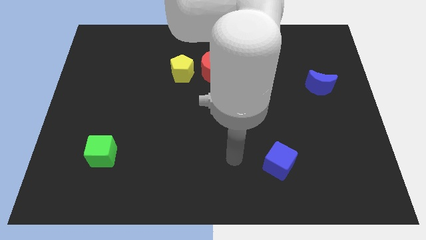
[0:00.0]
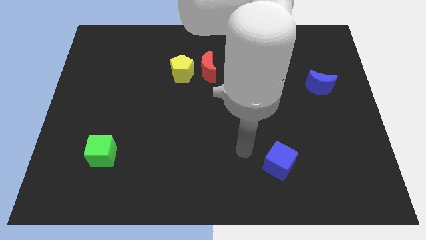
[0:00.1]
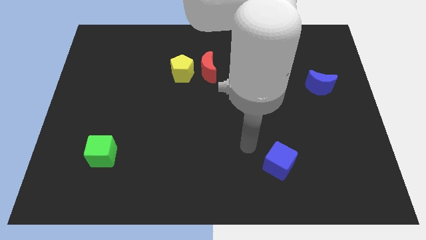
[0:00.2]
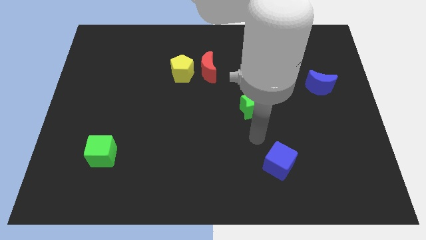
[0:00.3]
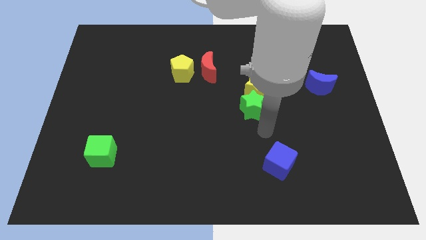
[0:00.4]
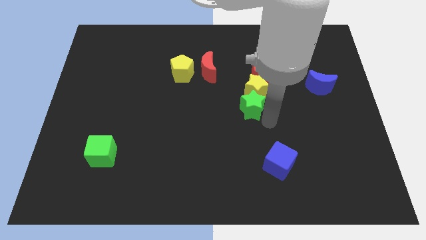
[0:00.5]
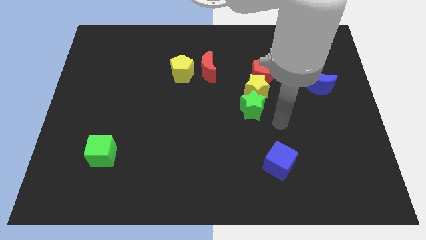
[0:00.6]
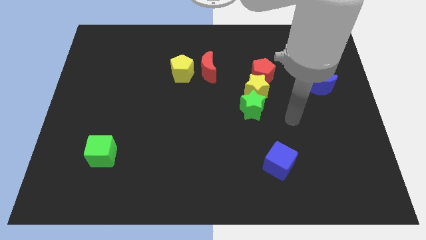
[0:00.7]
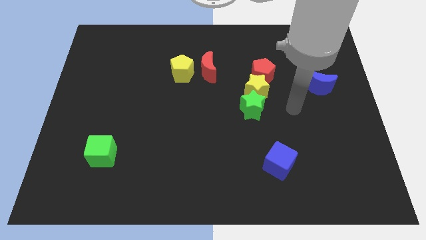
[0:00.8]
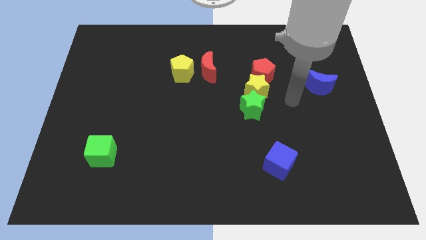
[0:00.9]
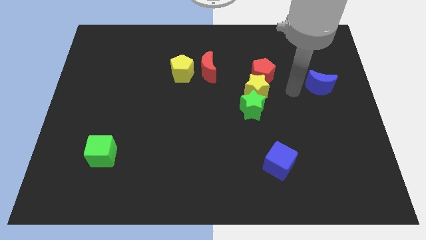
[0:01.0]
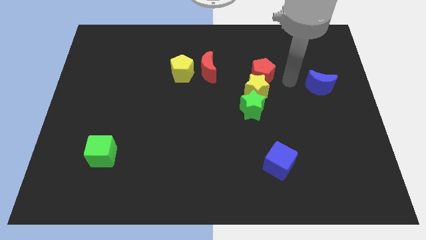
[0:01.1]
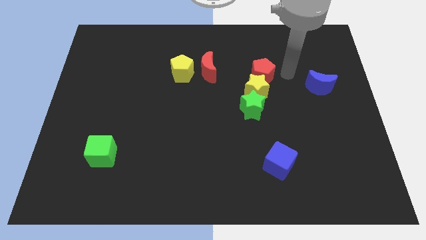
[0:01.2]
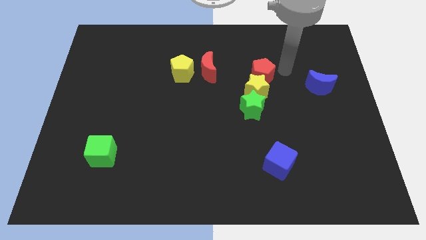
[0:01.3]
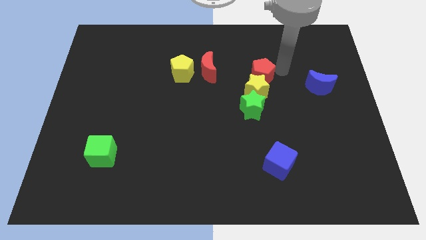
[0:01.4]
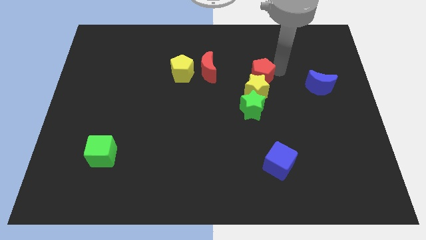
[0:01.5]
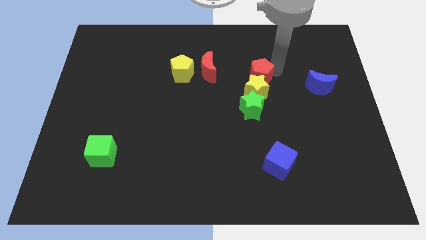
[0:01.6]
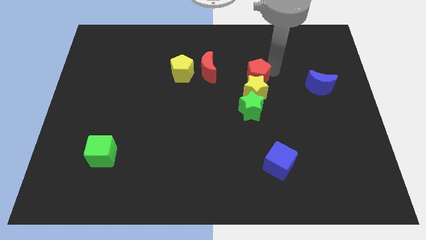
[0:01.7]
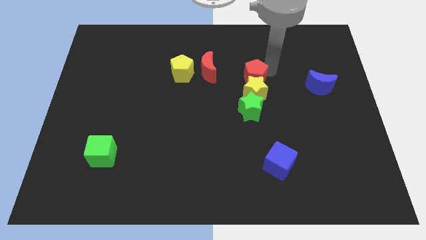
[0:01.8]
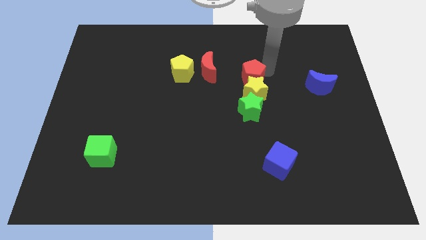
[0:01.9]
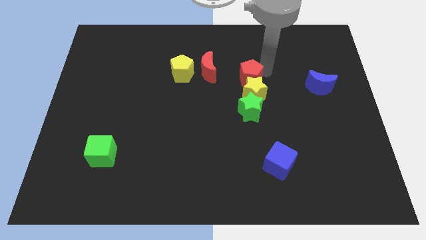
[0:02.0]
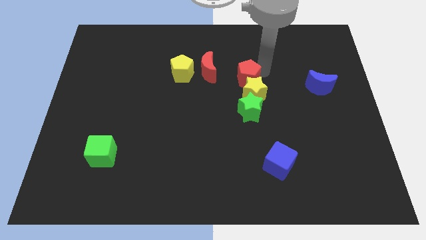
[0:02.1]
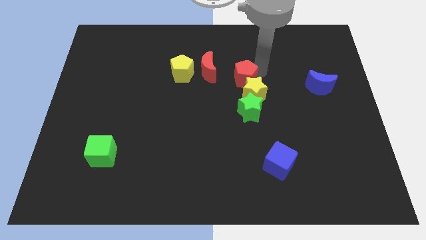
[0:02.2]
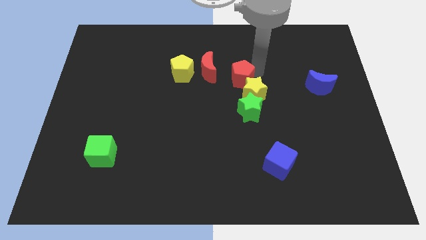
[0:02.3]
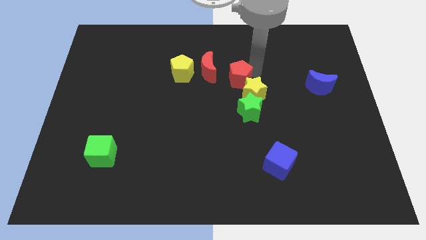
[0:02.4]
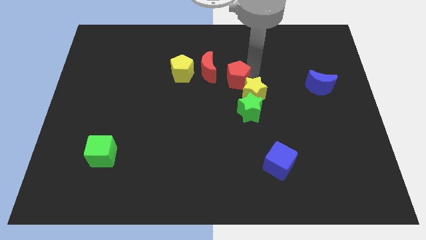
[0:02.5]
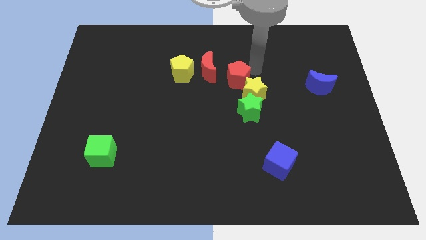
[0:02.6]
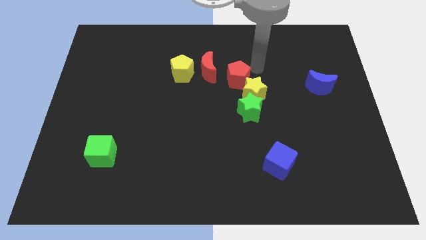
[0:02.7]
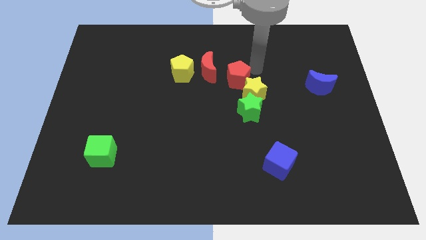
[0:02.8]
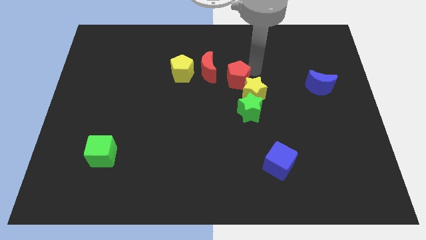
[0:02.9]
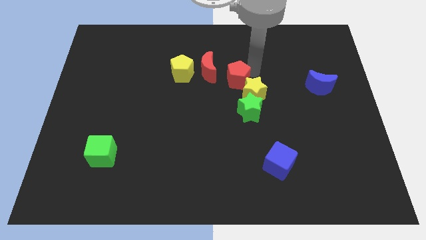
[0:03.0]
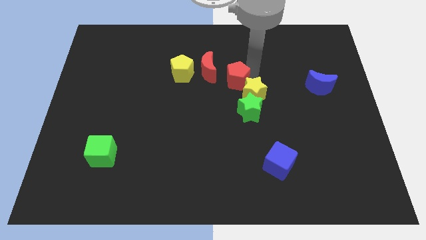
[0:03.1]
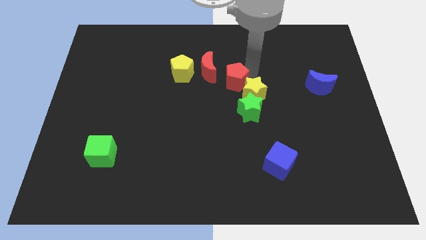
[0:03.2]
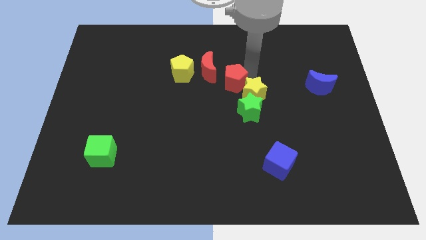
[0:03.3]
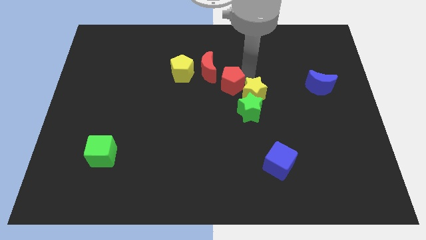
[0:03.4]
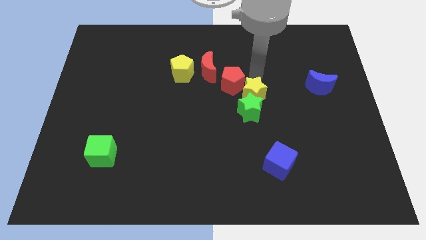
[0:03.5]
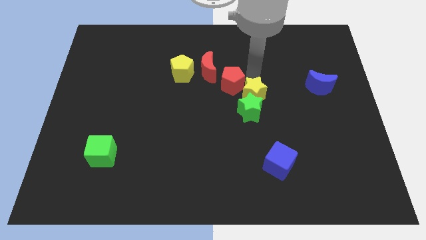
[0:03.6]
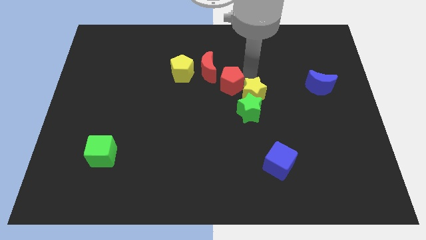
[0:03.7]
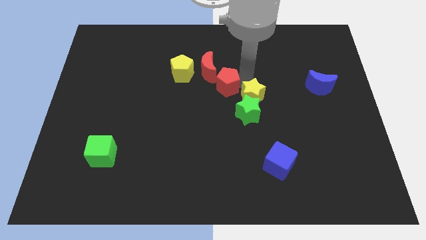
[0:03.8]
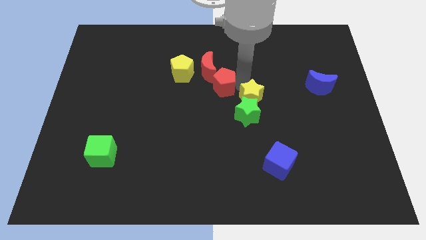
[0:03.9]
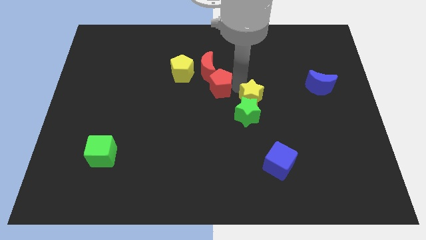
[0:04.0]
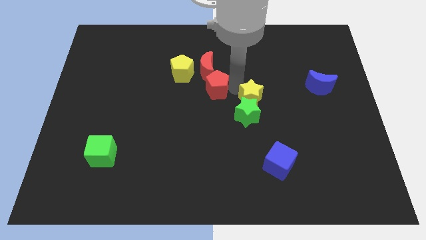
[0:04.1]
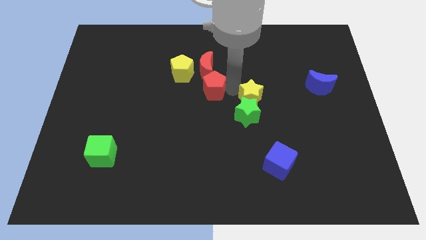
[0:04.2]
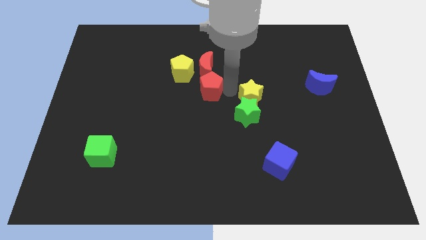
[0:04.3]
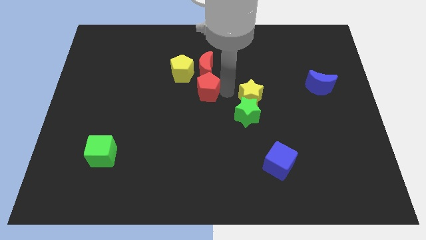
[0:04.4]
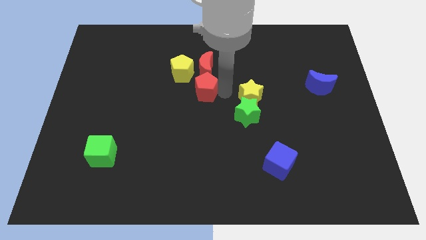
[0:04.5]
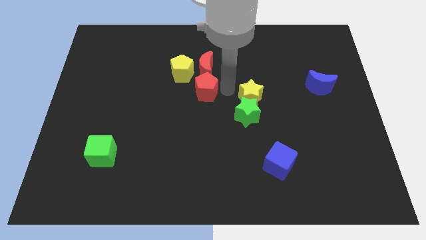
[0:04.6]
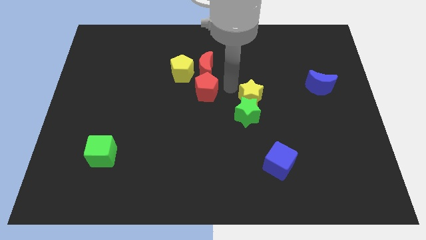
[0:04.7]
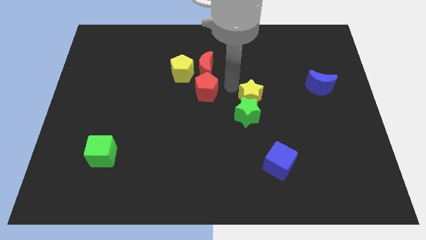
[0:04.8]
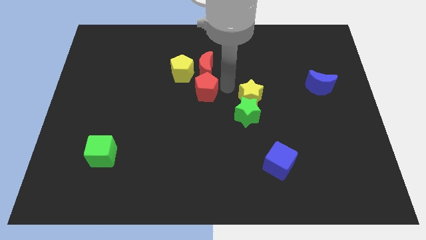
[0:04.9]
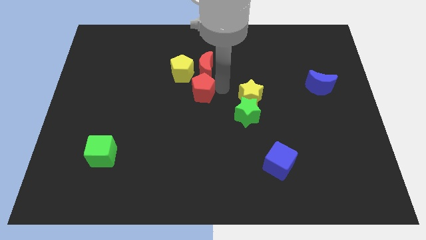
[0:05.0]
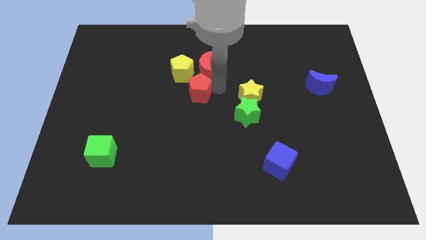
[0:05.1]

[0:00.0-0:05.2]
put the red pentagon to the bottom side of the yellow pentagon

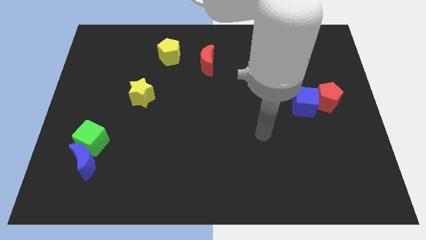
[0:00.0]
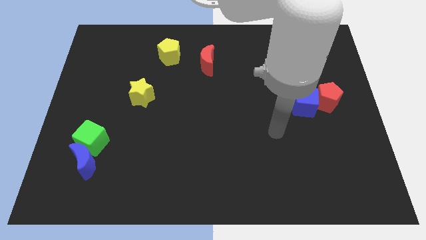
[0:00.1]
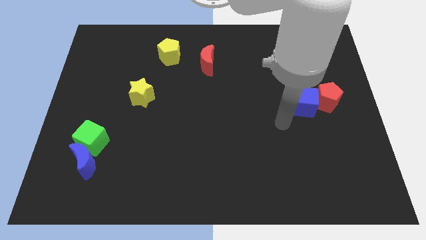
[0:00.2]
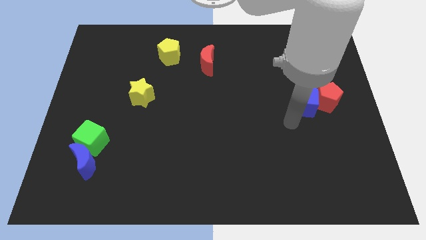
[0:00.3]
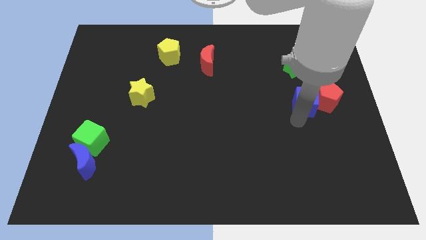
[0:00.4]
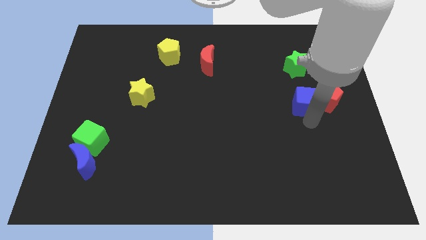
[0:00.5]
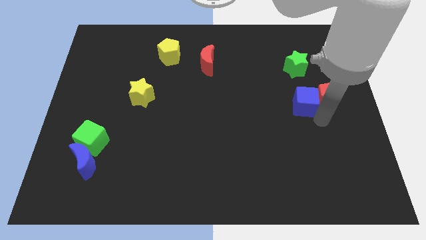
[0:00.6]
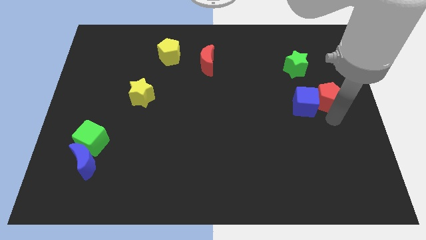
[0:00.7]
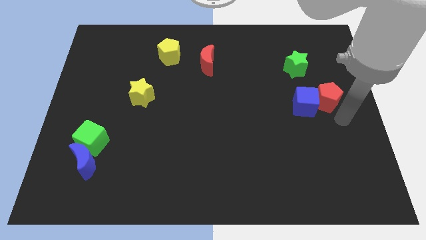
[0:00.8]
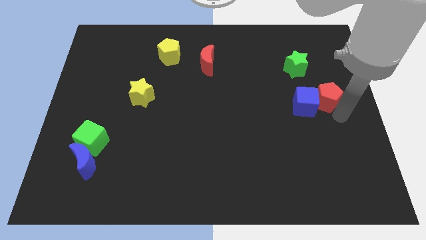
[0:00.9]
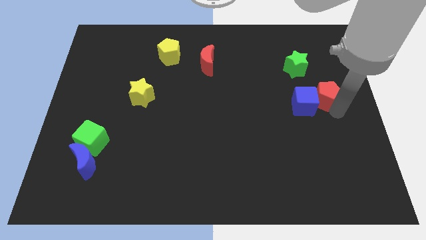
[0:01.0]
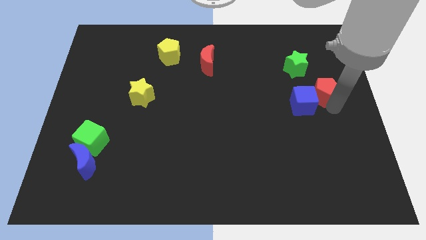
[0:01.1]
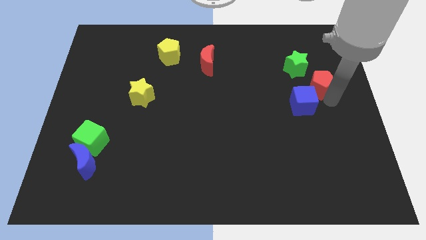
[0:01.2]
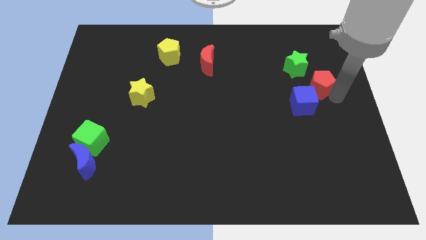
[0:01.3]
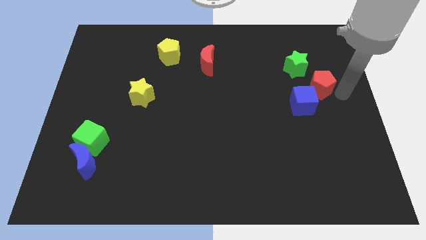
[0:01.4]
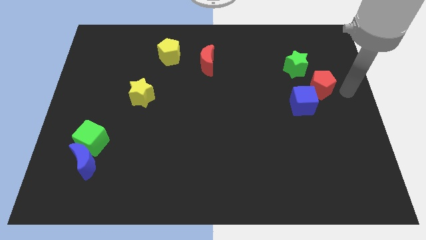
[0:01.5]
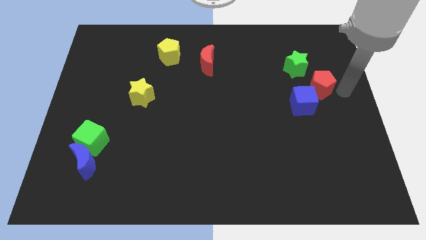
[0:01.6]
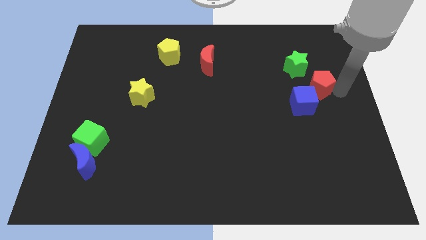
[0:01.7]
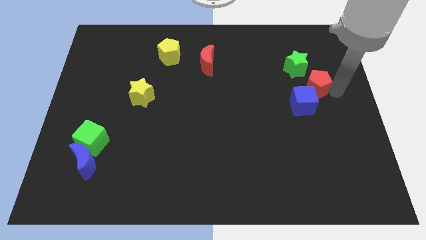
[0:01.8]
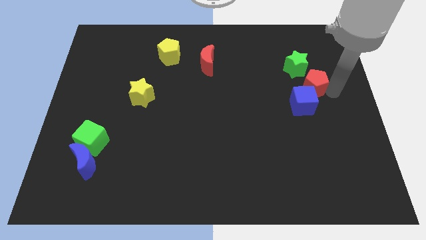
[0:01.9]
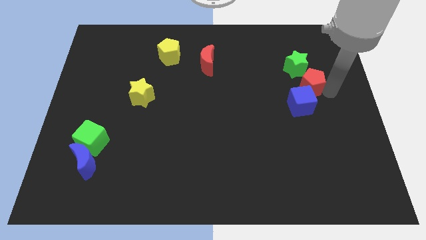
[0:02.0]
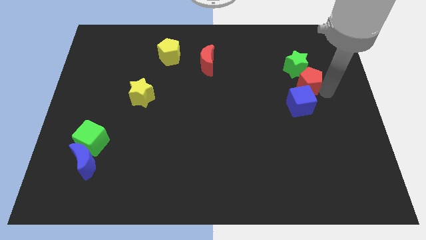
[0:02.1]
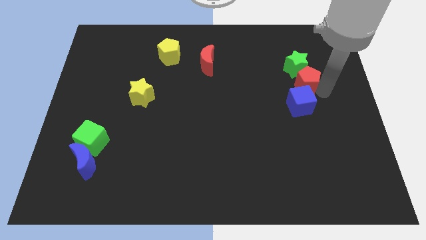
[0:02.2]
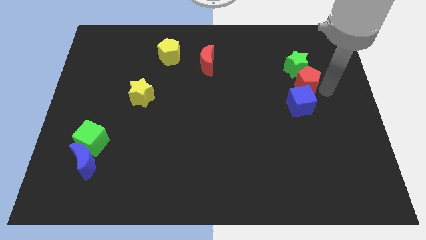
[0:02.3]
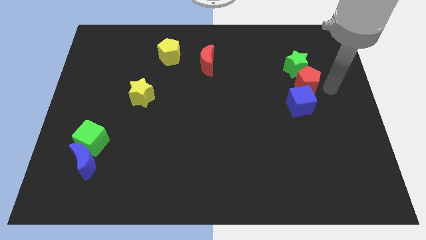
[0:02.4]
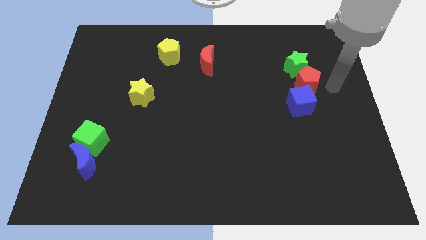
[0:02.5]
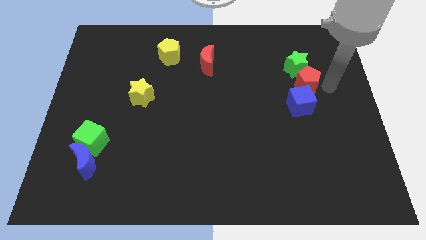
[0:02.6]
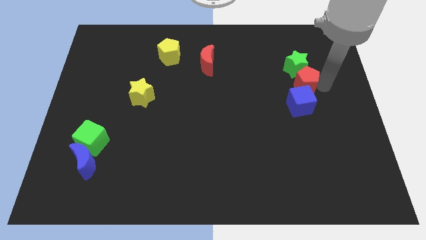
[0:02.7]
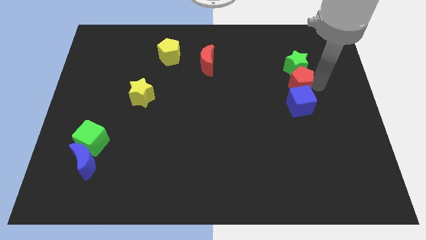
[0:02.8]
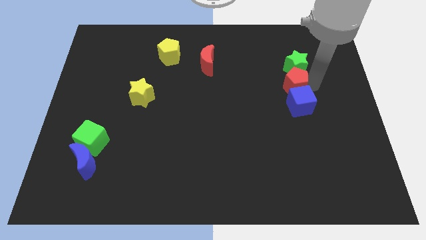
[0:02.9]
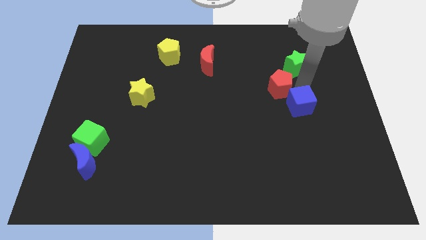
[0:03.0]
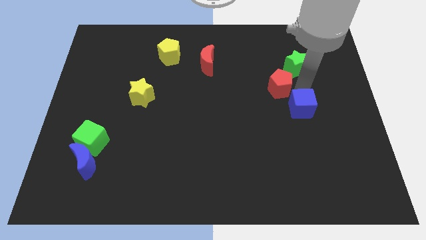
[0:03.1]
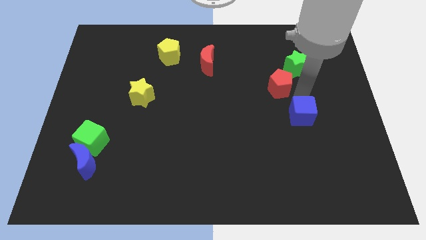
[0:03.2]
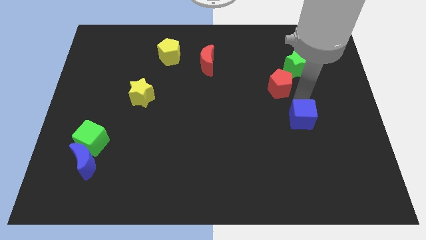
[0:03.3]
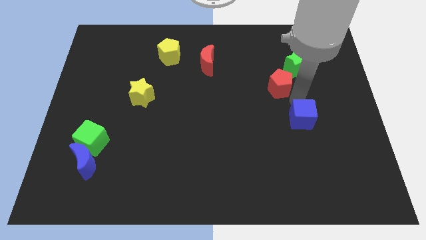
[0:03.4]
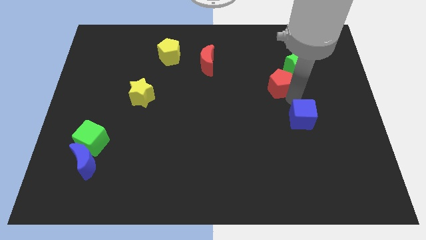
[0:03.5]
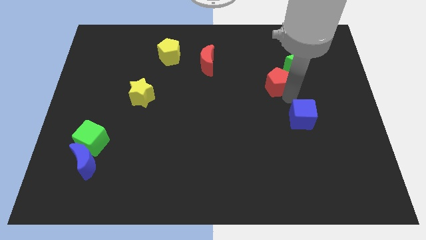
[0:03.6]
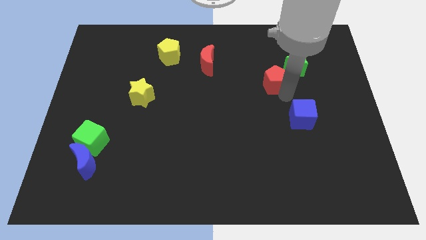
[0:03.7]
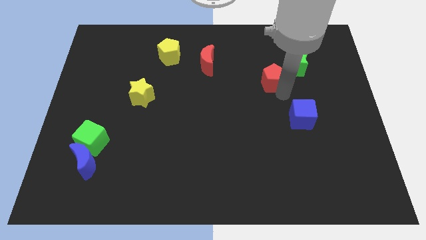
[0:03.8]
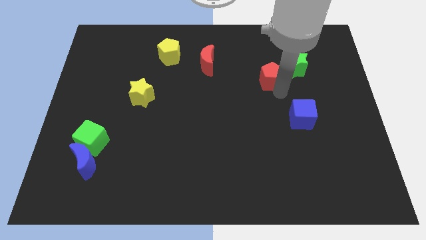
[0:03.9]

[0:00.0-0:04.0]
put the red pentagon to the left of the green star
